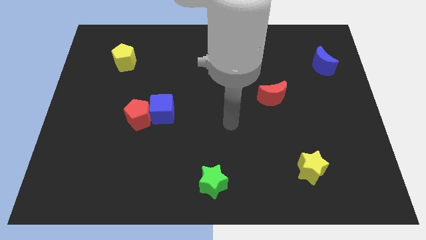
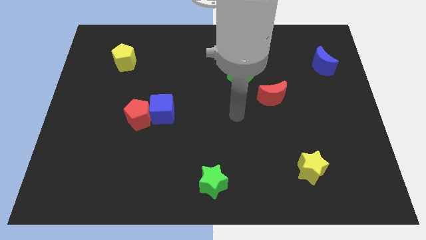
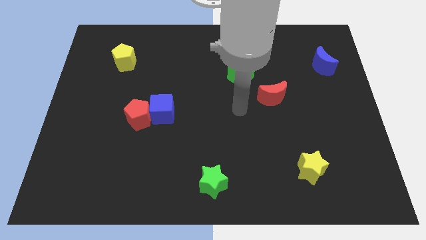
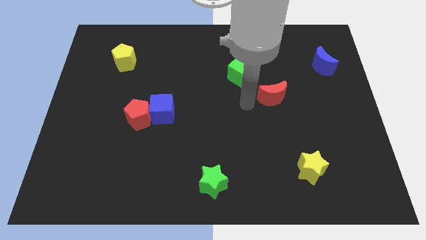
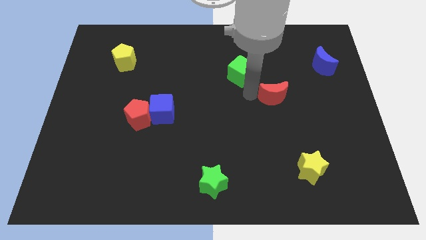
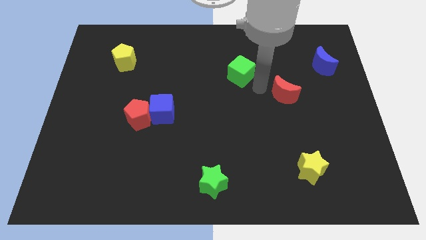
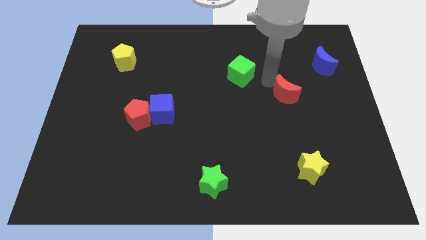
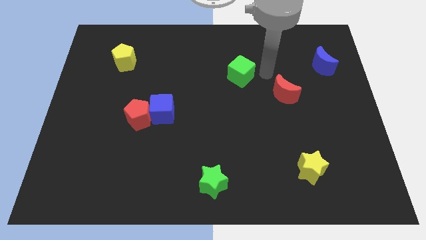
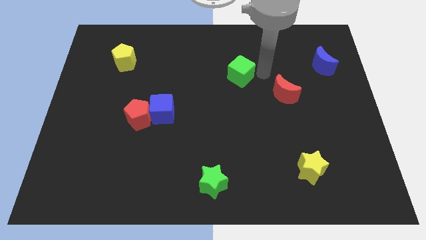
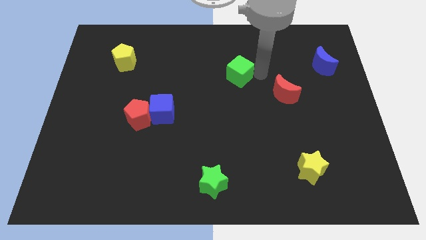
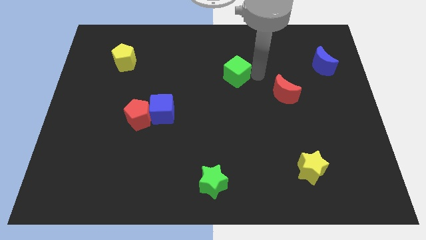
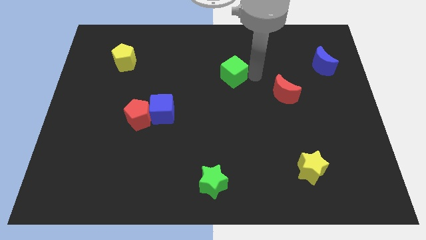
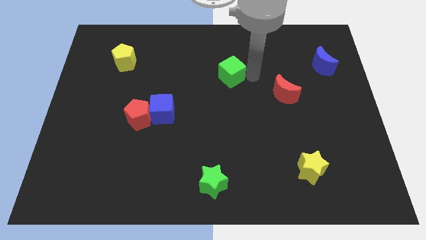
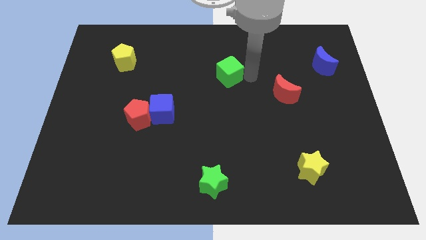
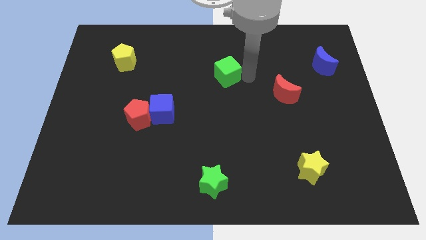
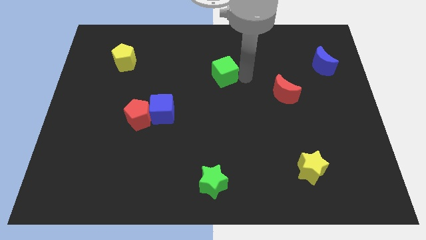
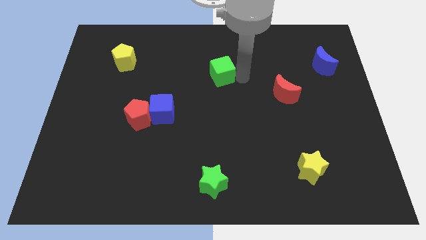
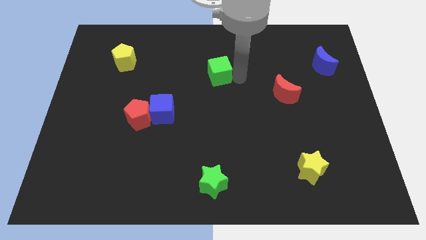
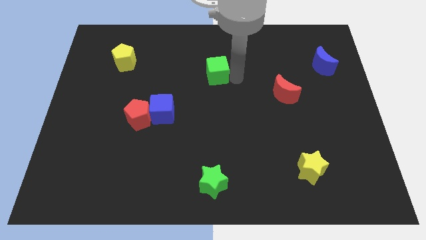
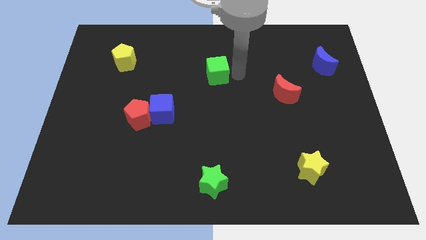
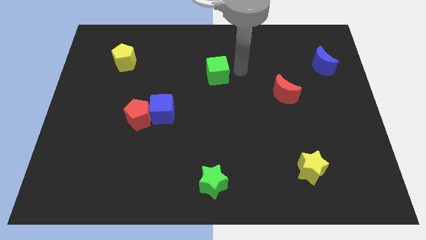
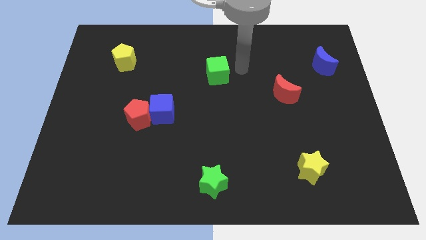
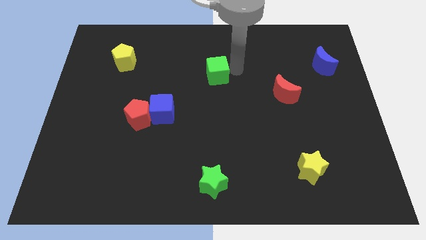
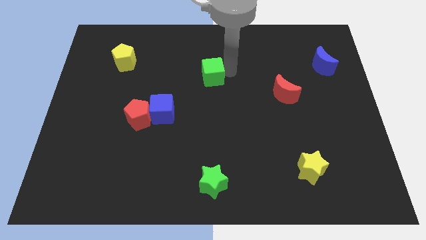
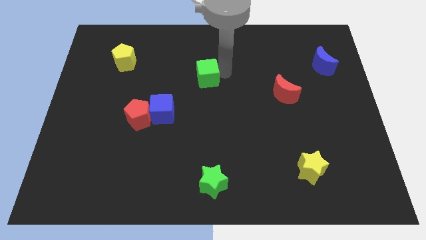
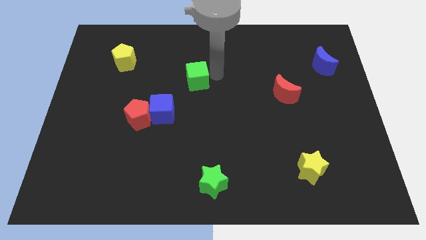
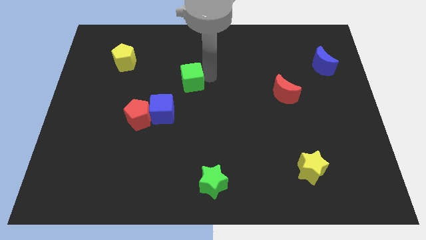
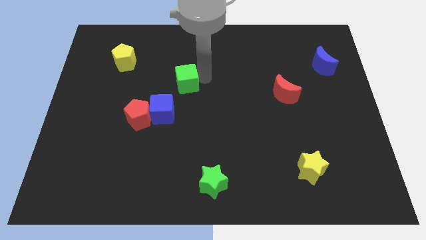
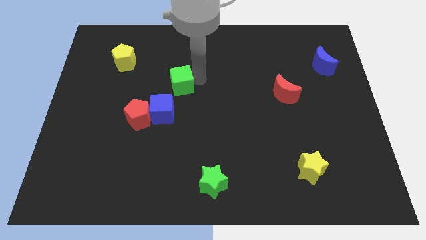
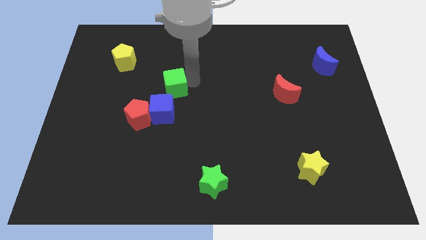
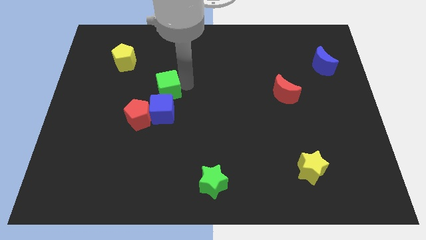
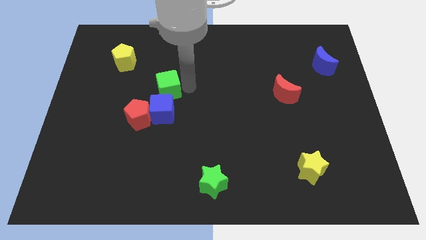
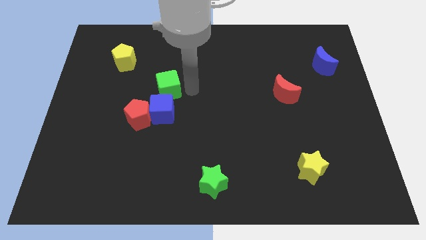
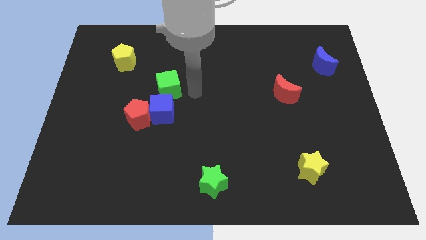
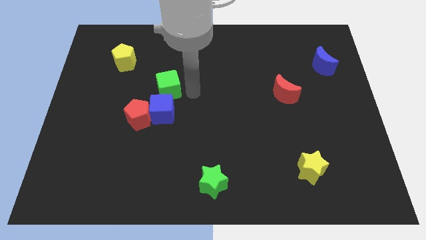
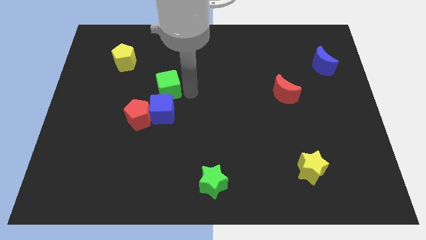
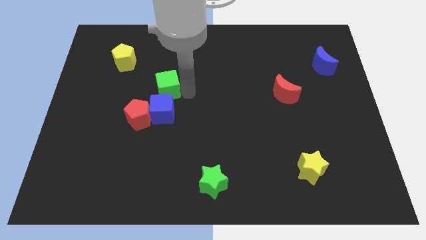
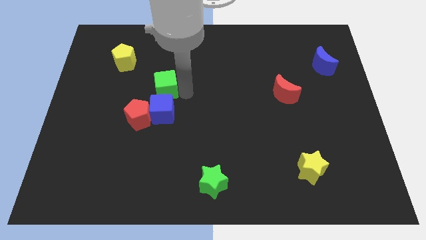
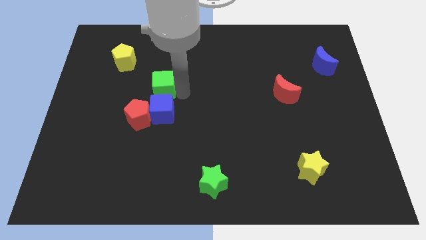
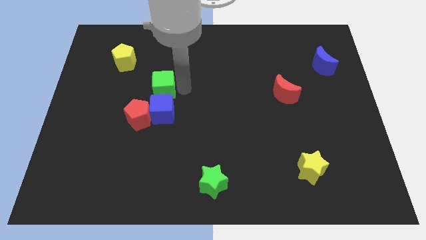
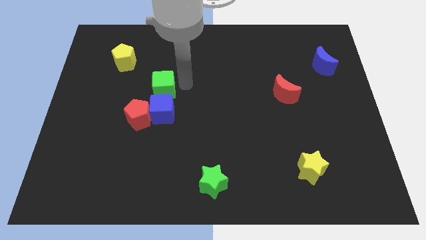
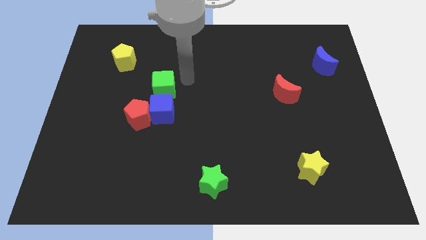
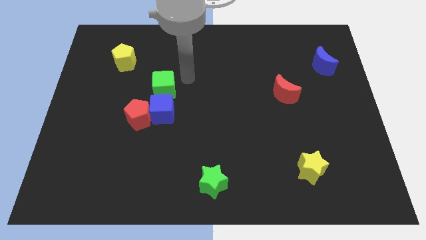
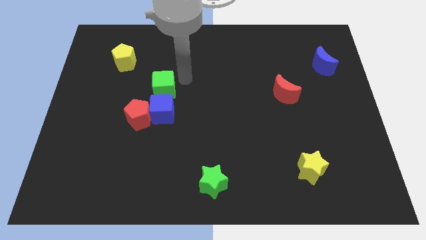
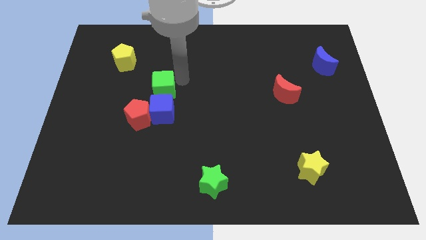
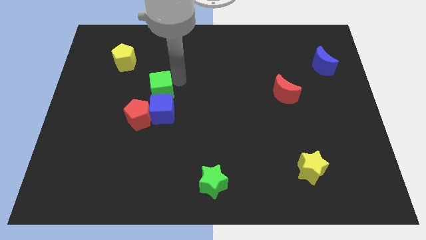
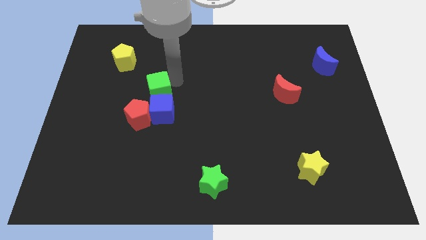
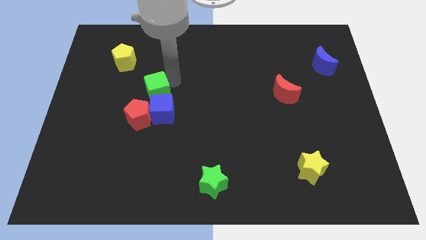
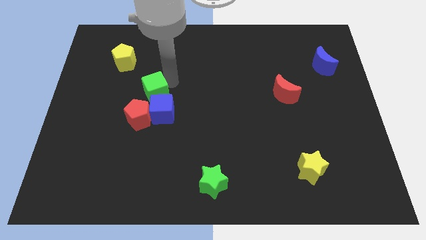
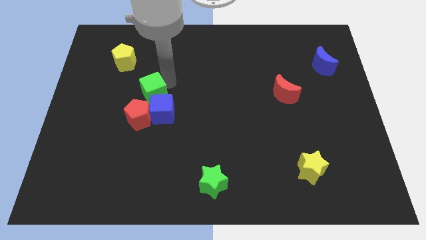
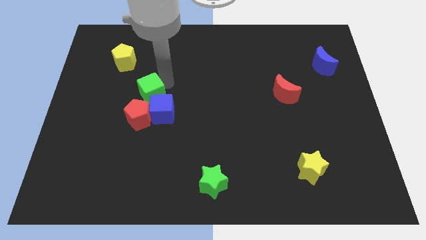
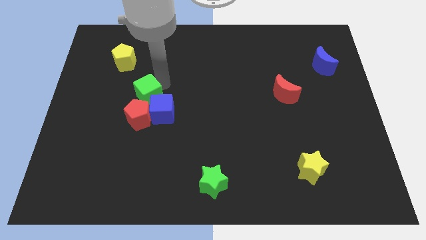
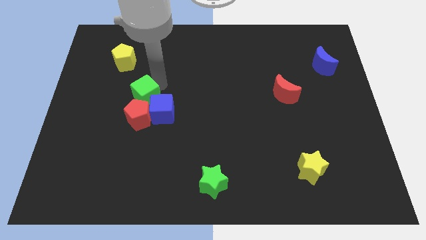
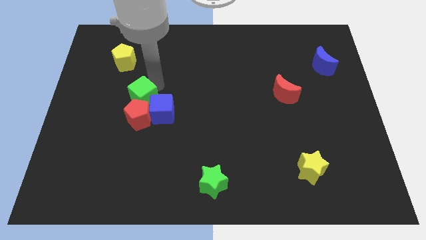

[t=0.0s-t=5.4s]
push the green cube close to the red pentagon

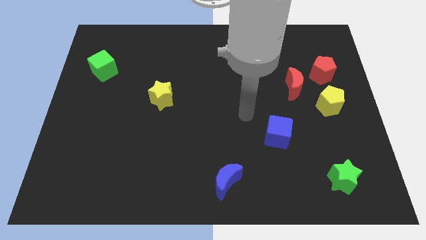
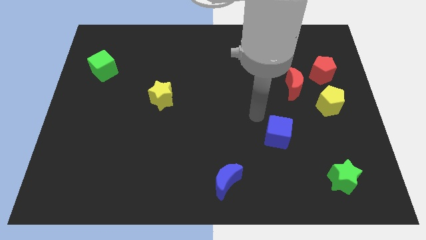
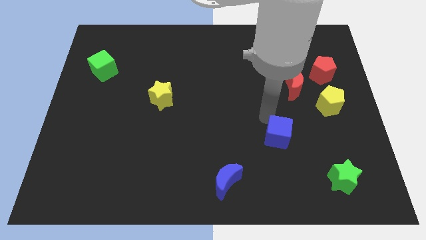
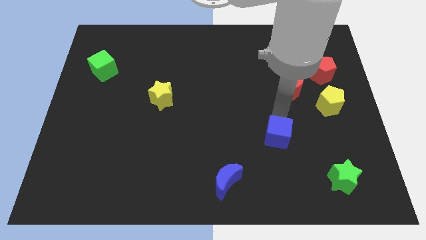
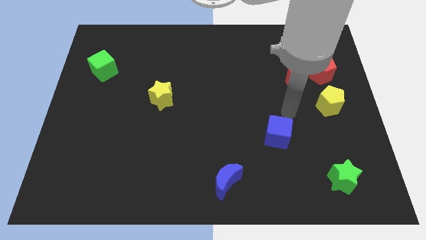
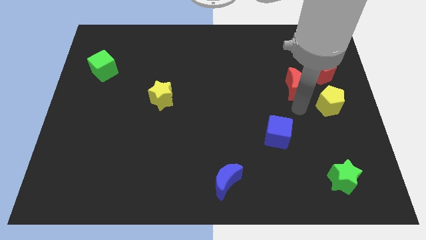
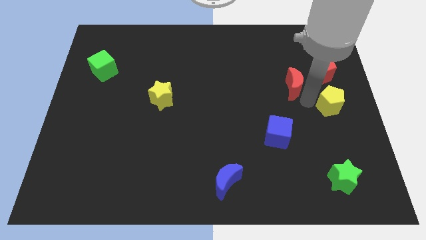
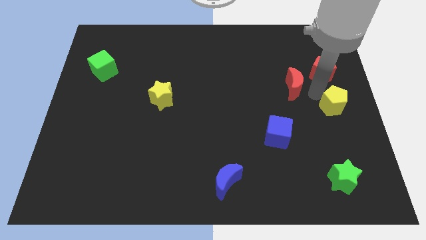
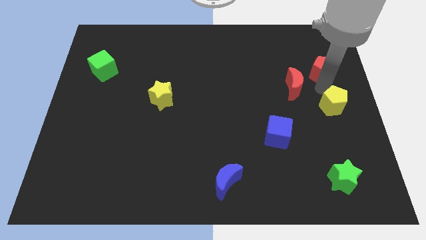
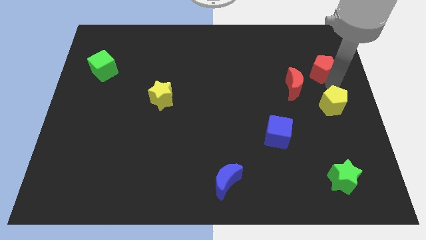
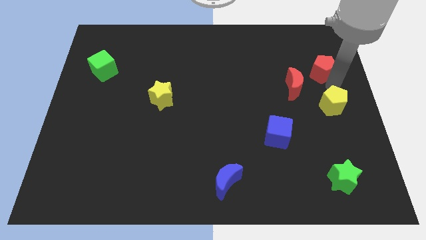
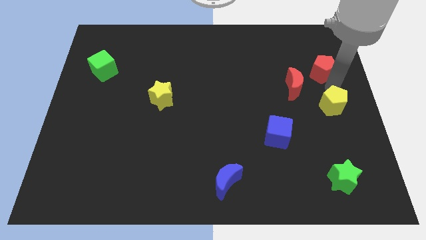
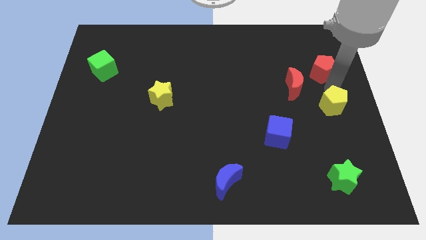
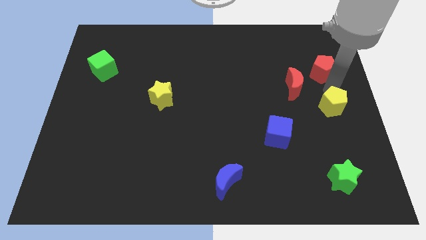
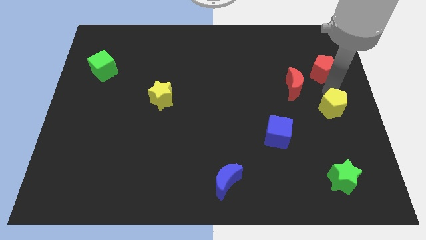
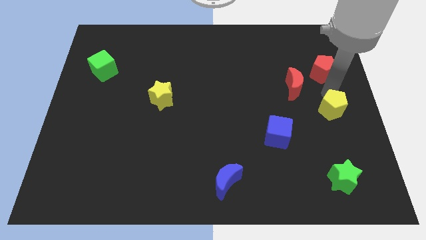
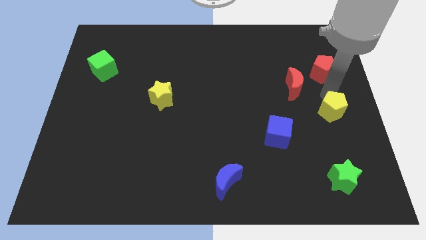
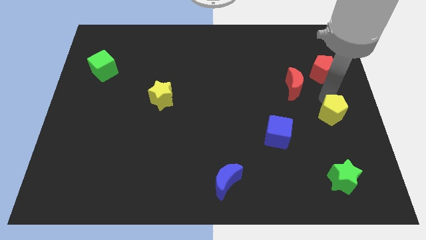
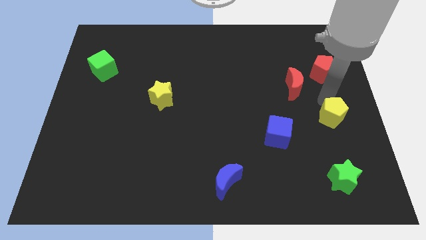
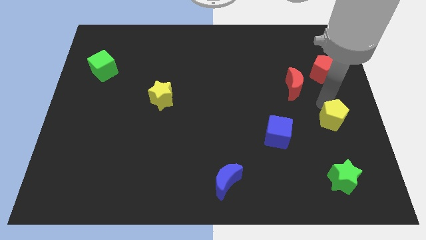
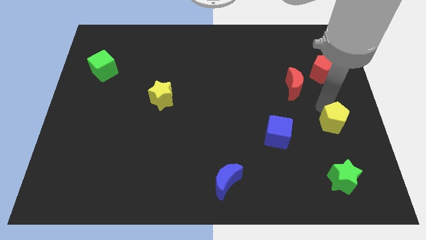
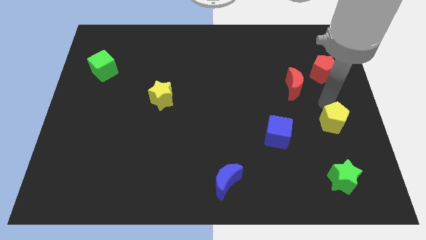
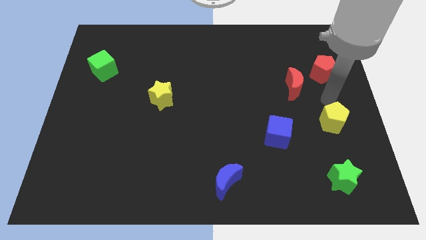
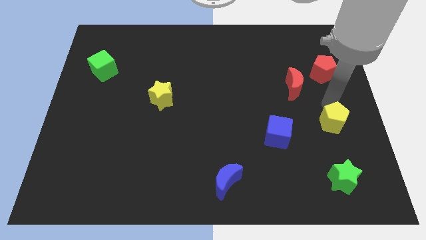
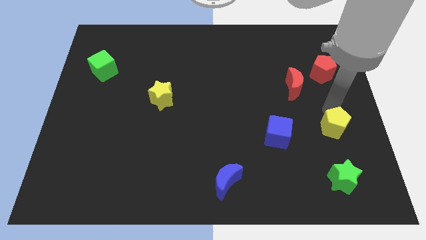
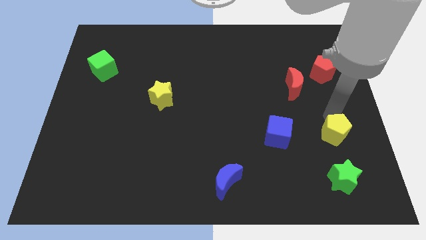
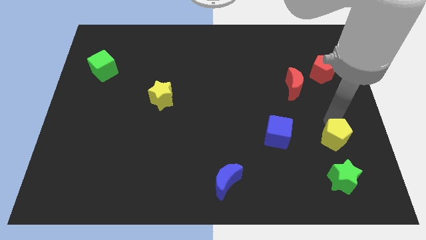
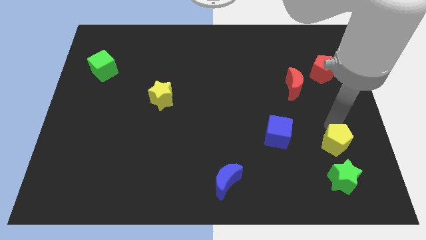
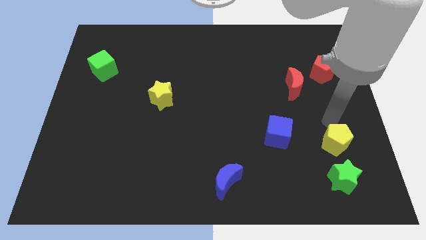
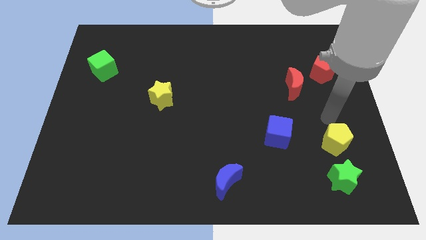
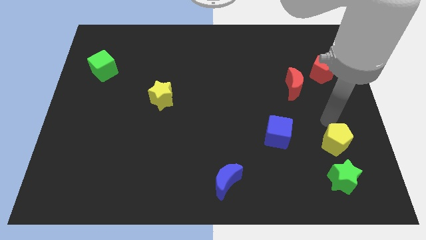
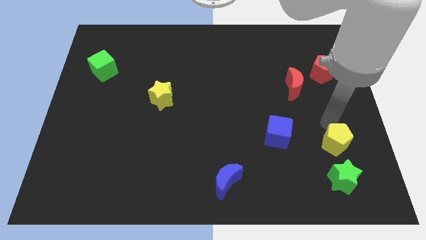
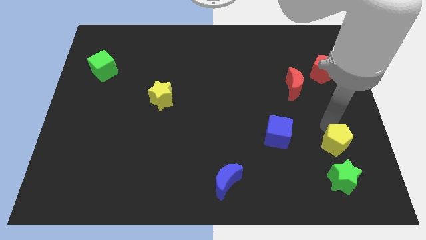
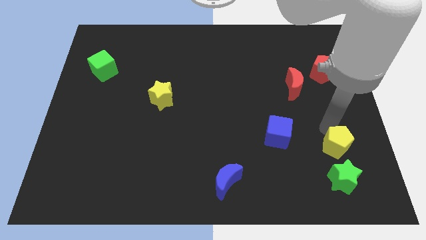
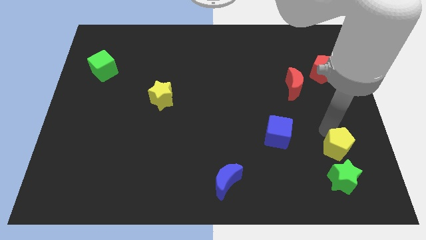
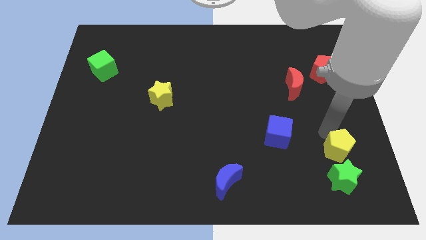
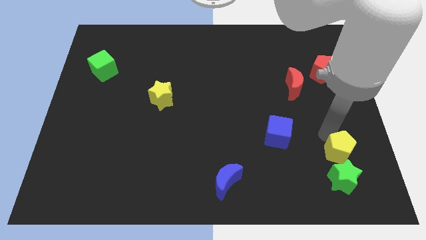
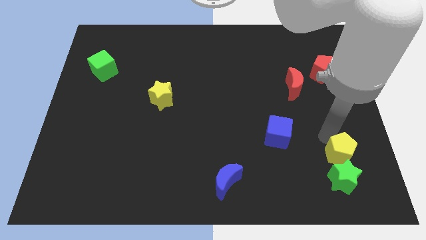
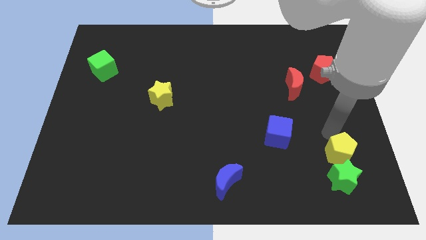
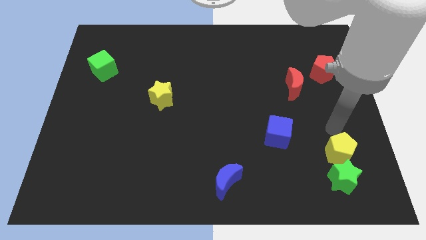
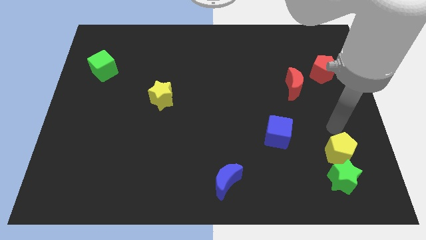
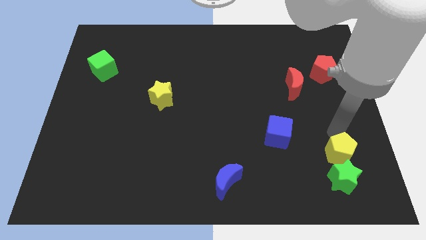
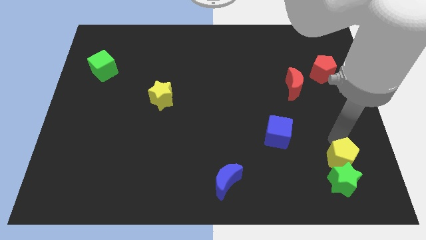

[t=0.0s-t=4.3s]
put the yellow pentagon towards the green star
